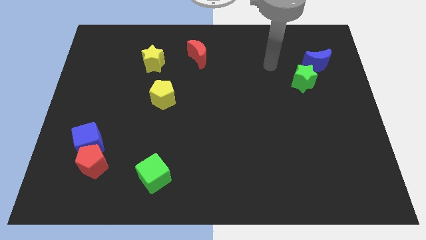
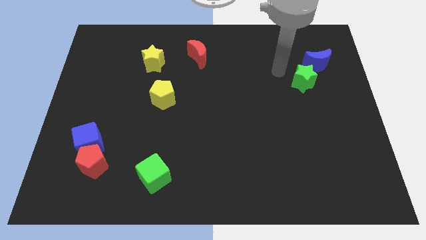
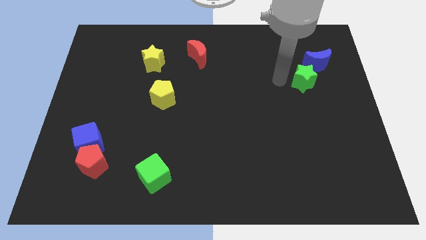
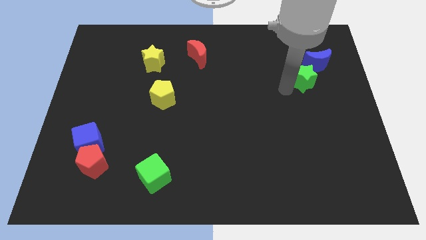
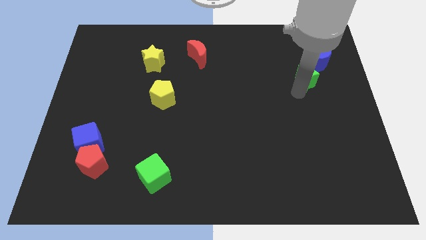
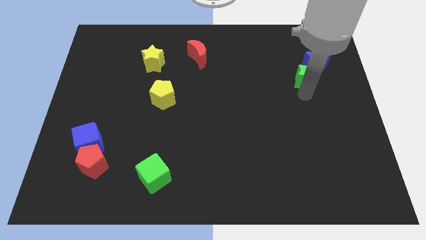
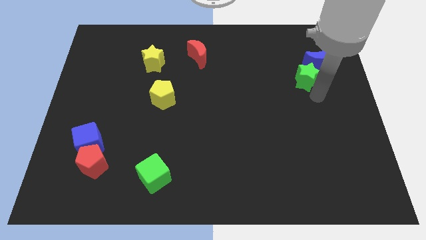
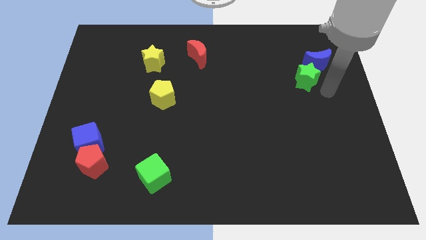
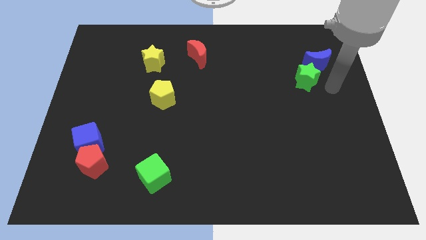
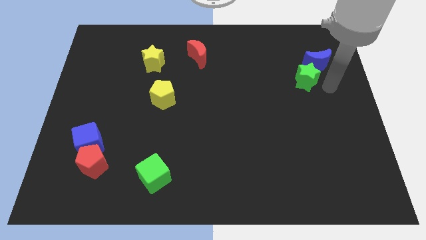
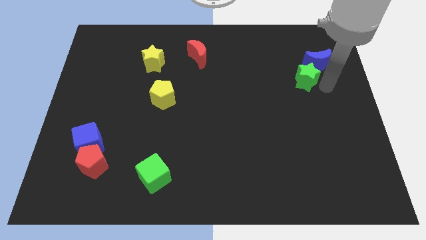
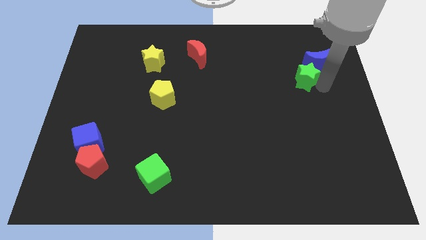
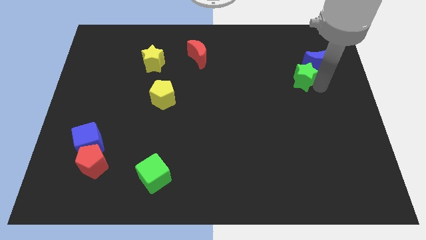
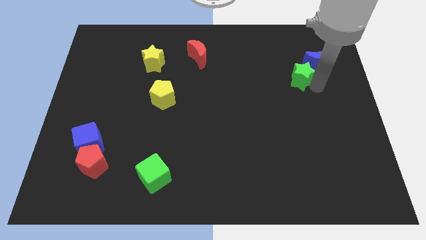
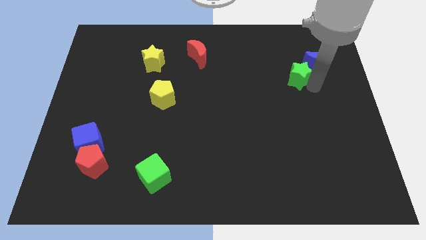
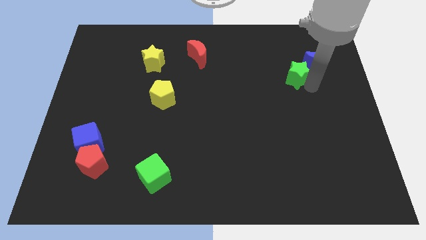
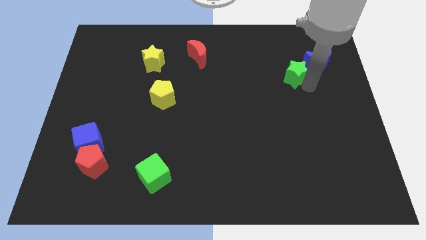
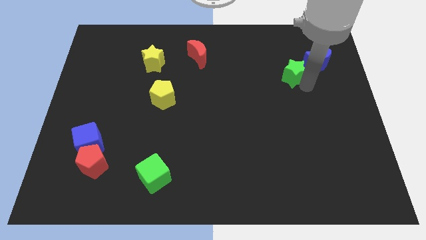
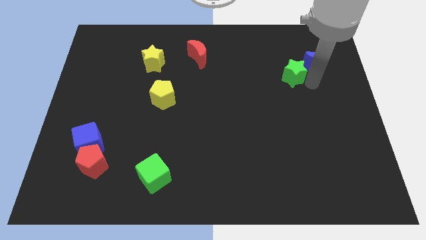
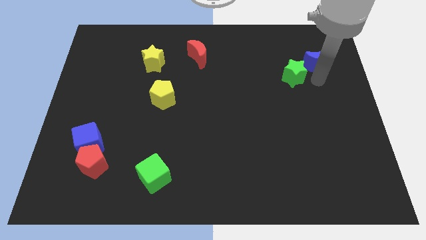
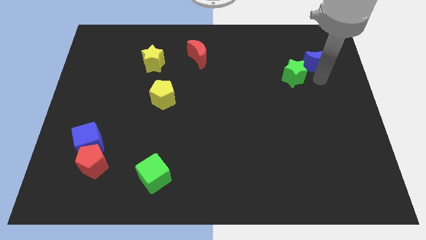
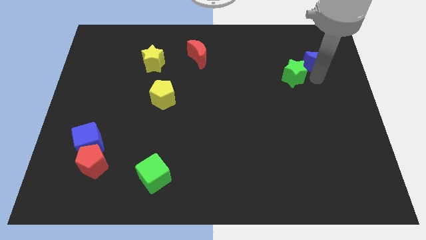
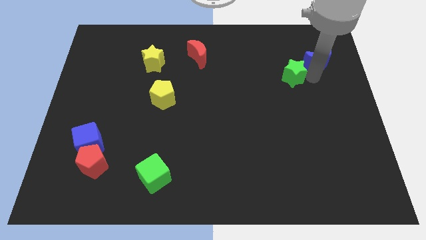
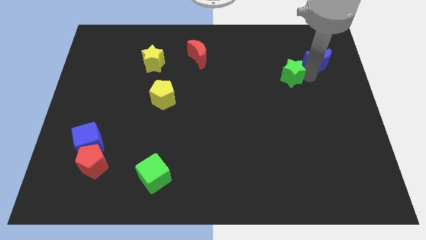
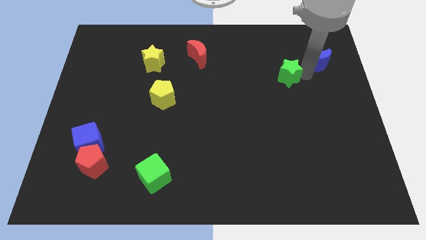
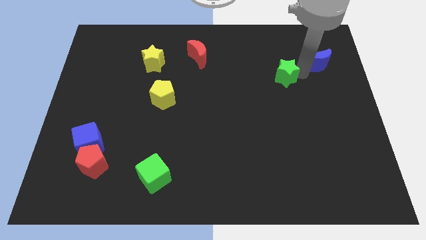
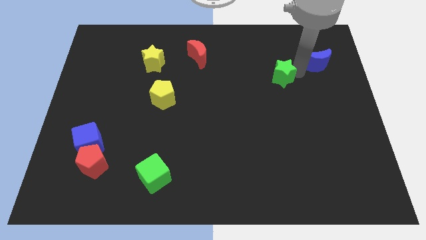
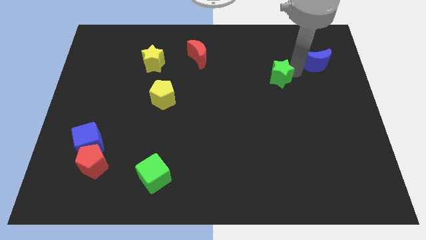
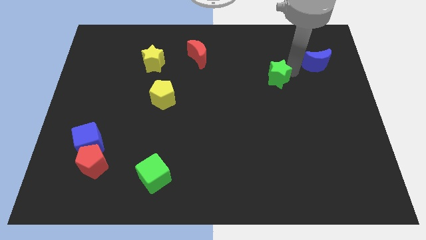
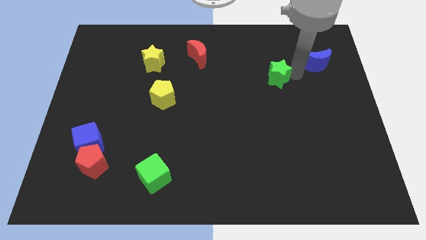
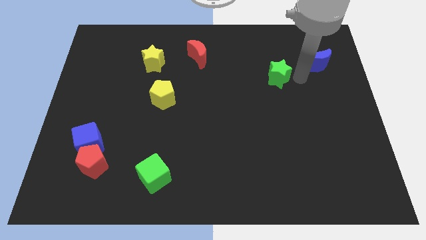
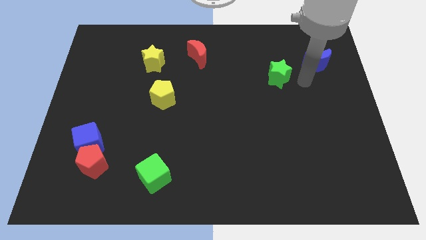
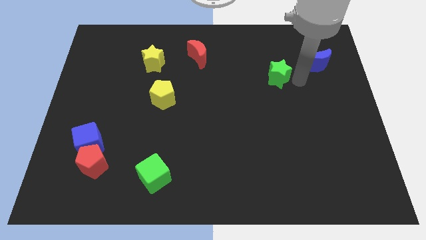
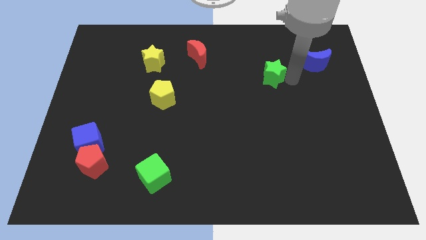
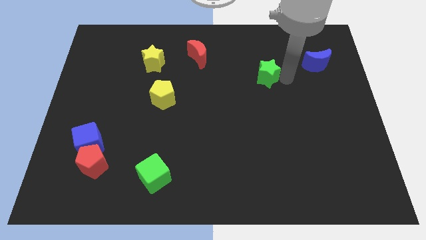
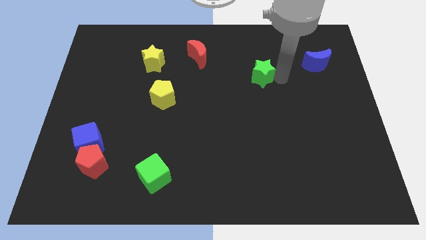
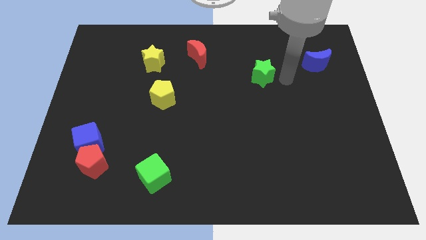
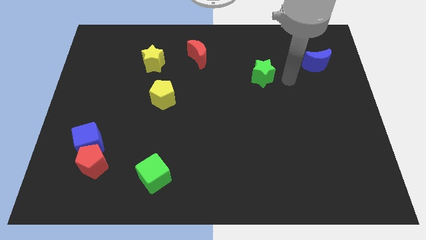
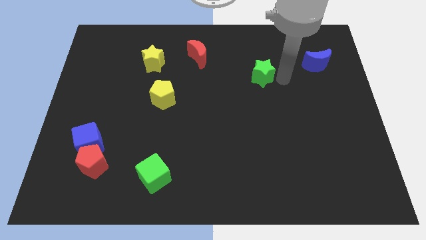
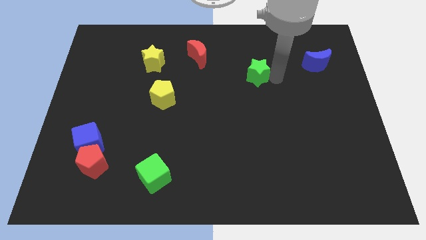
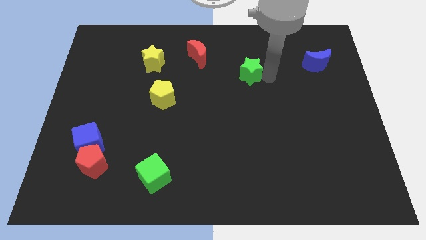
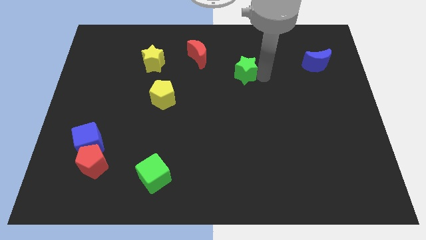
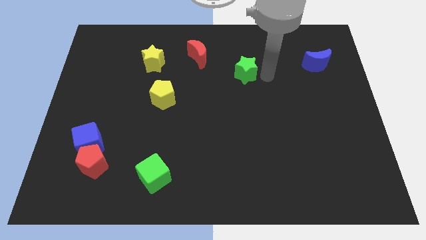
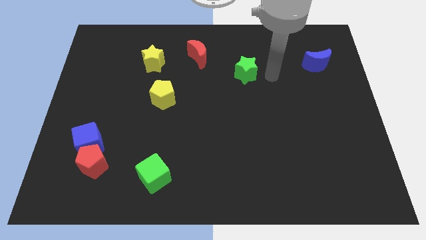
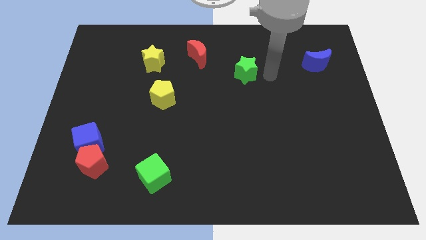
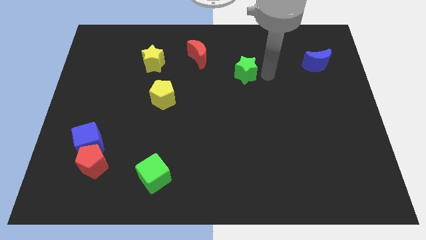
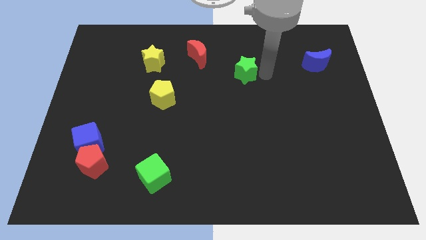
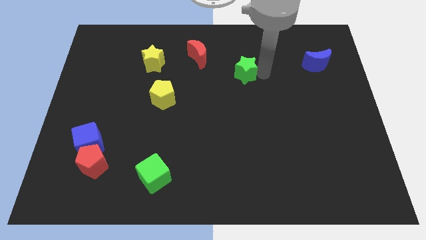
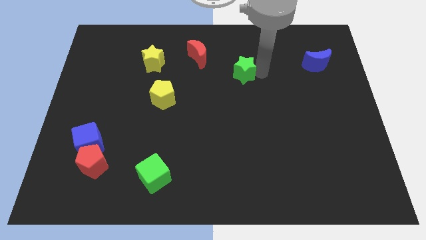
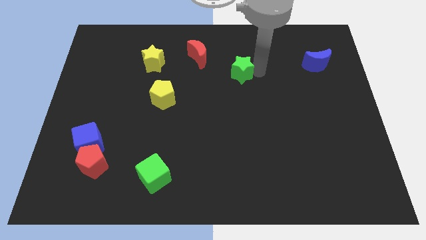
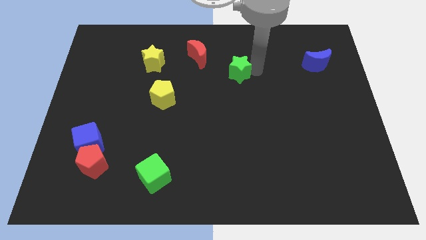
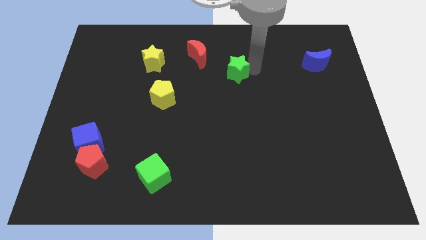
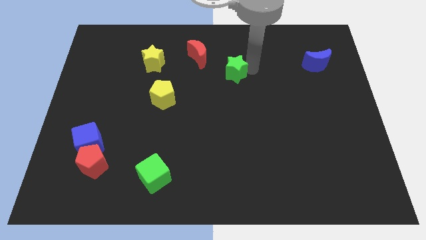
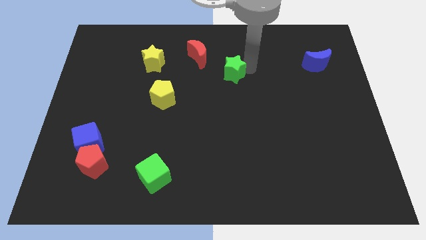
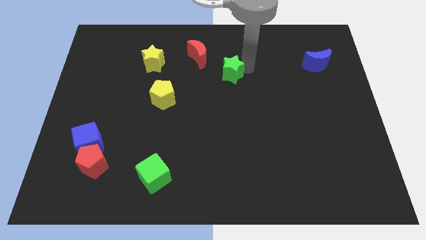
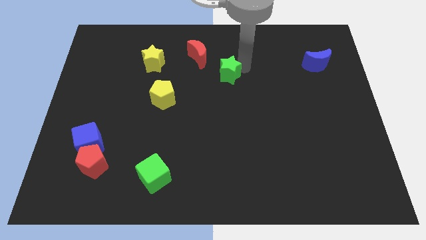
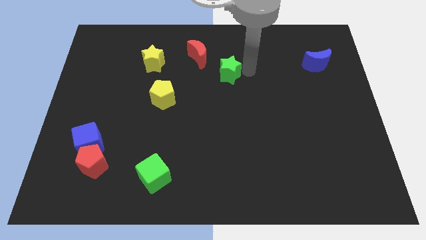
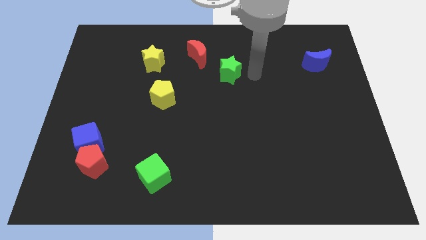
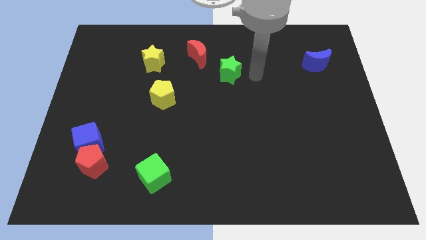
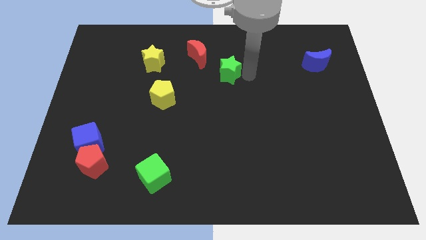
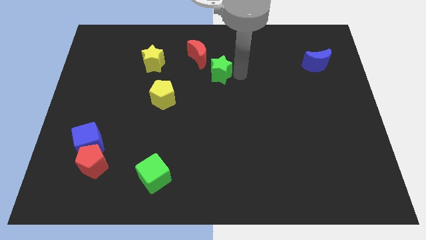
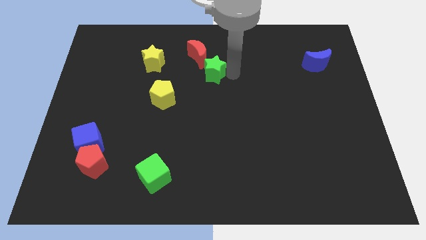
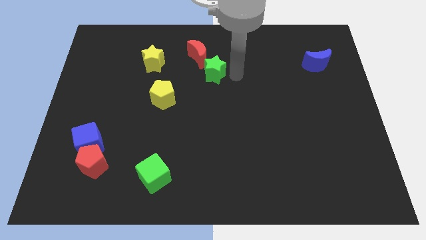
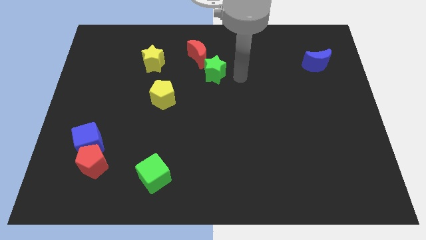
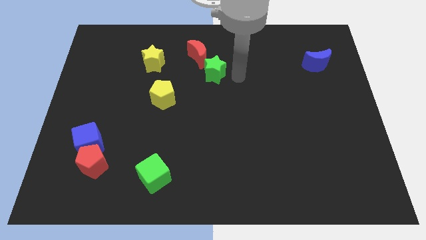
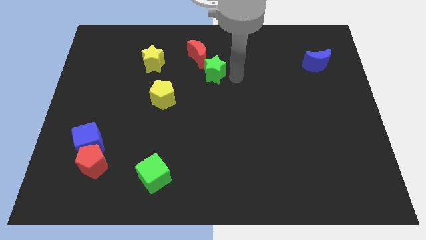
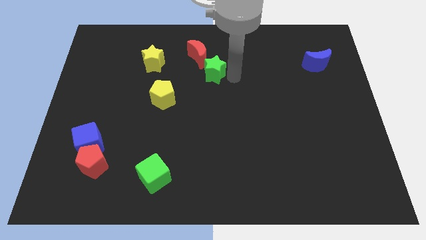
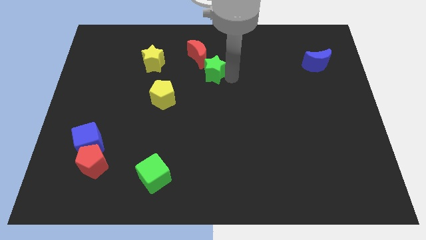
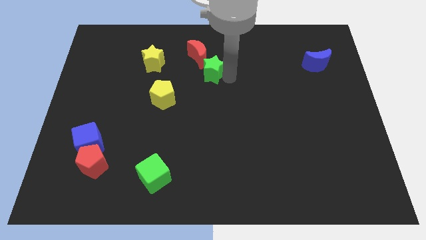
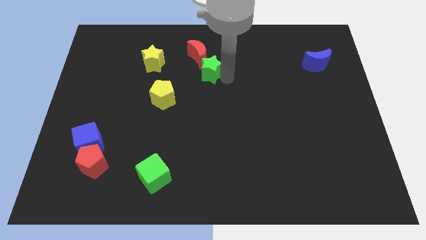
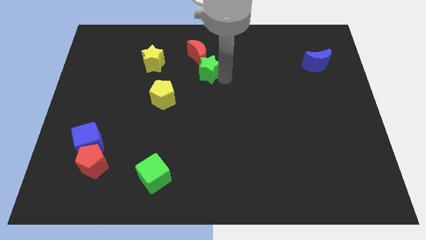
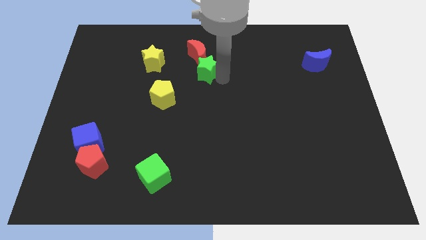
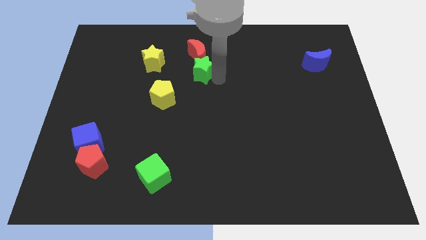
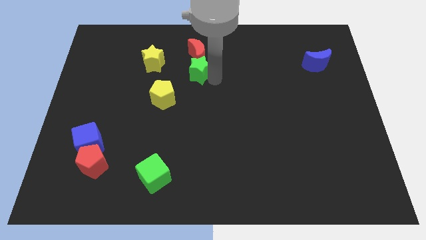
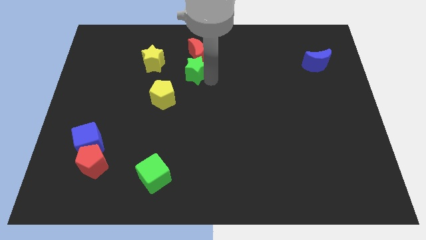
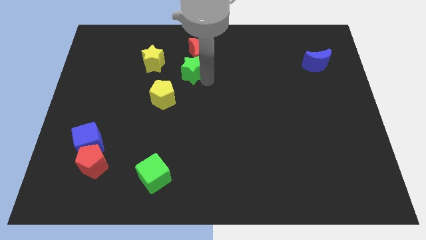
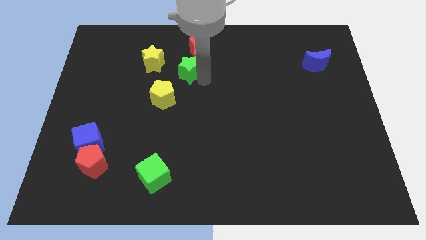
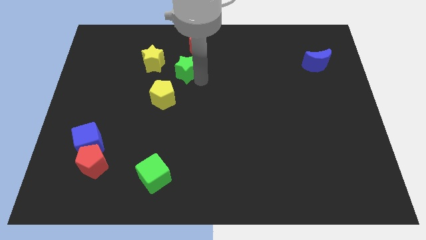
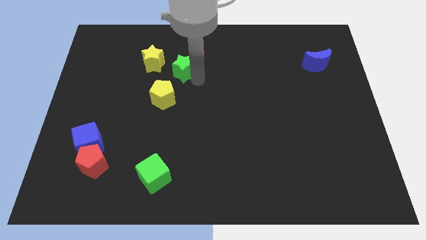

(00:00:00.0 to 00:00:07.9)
move the green star to the top of the yellow pentagon
